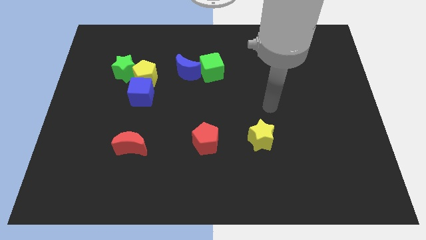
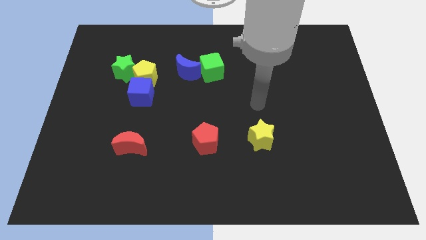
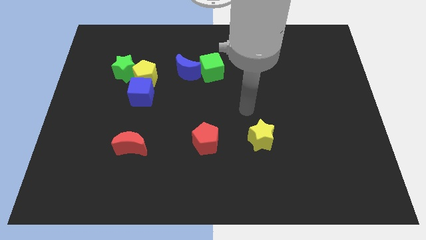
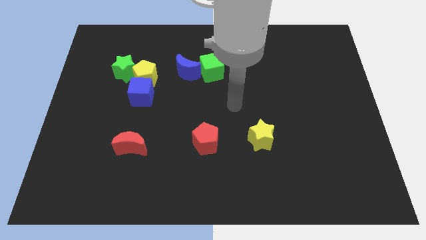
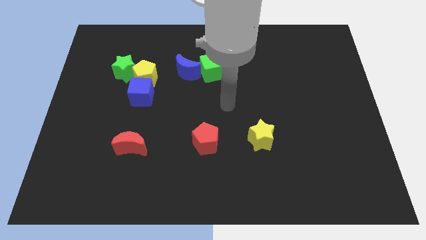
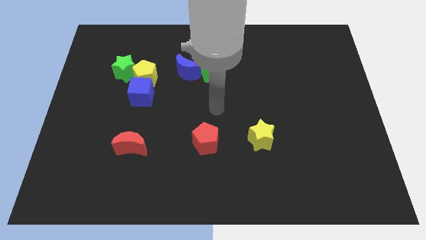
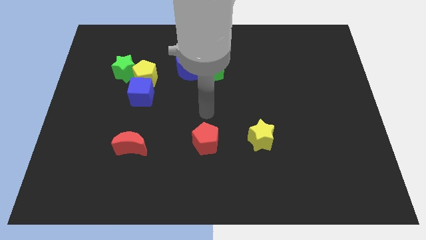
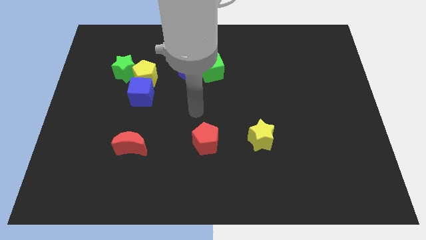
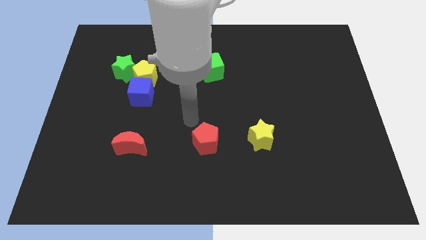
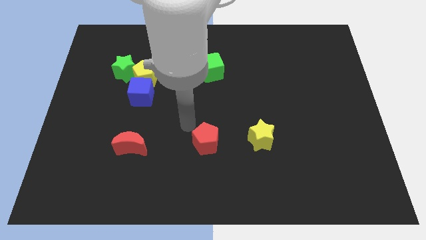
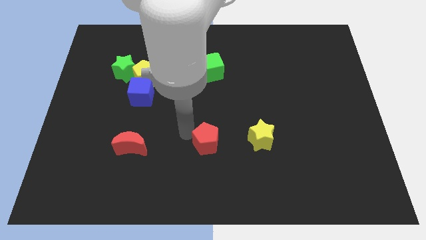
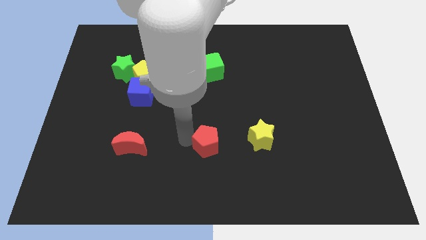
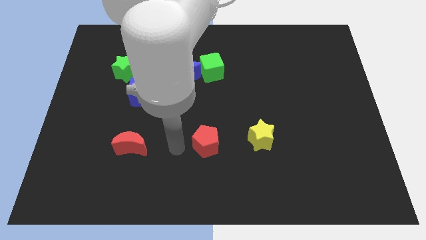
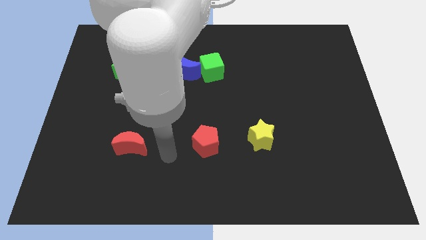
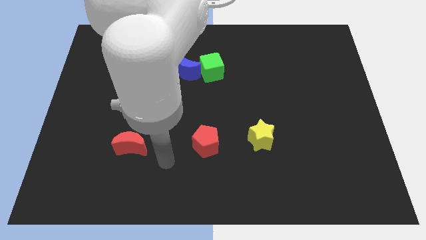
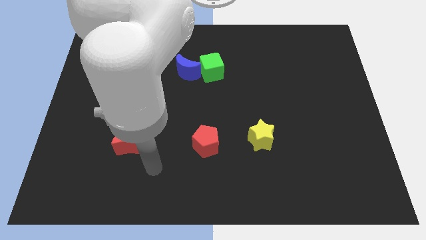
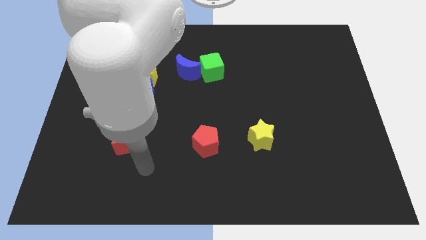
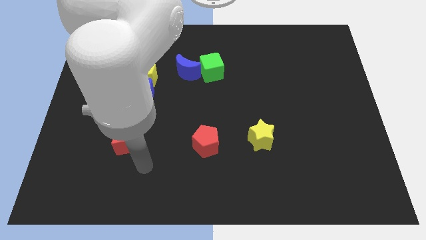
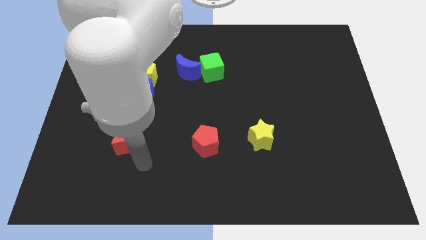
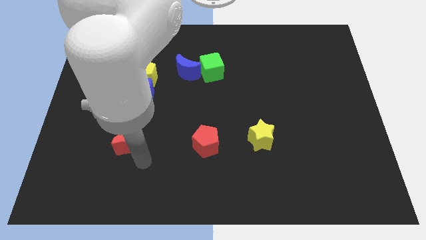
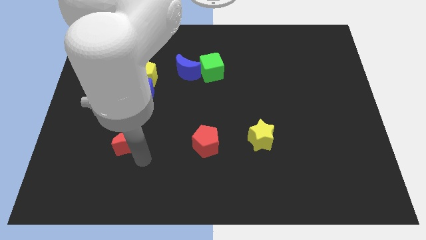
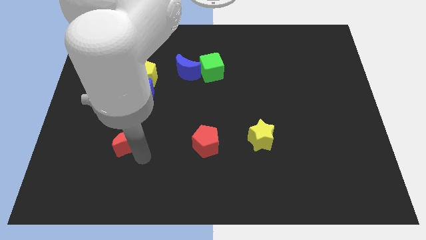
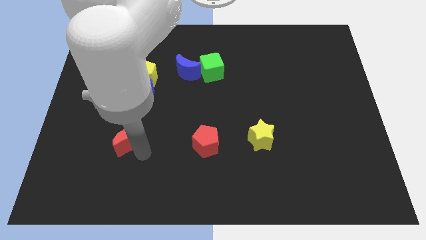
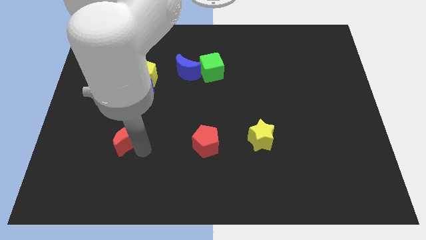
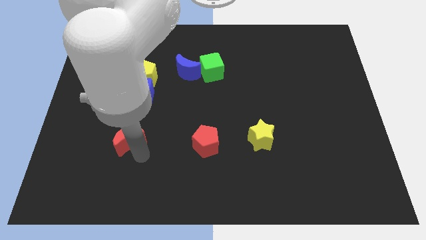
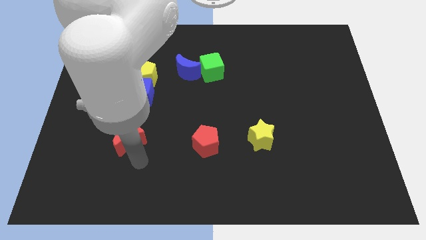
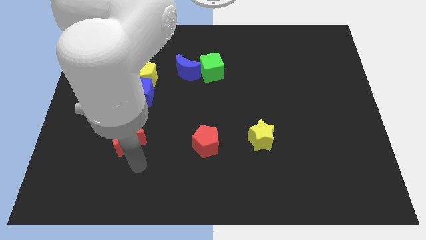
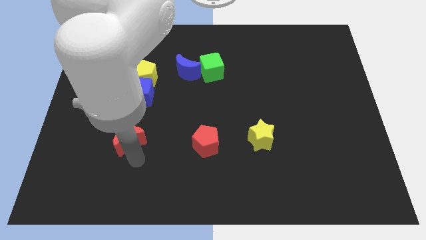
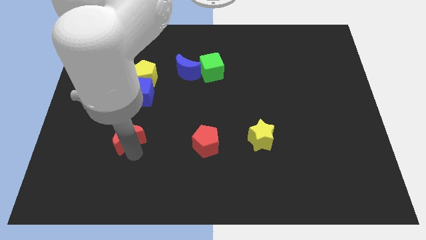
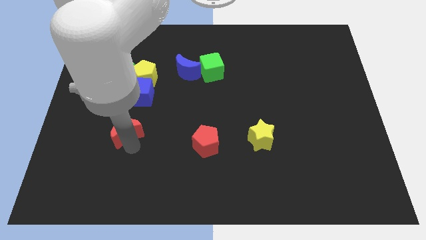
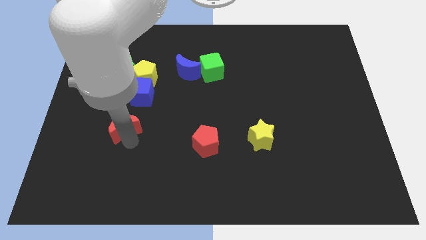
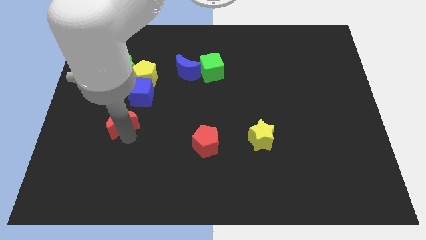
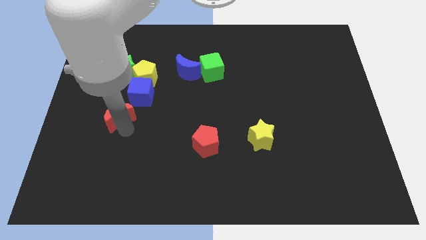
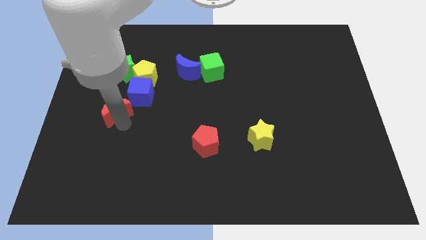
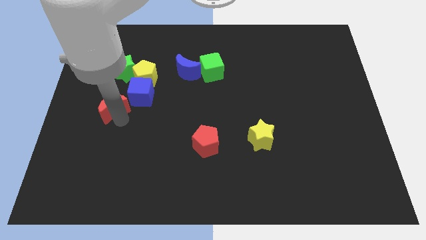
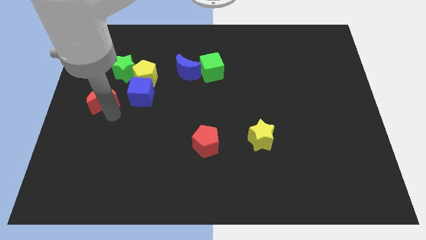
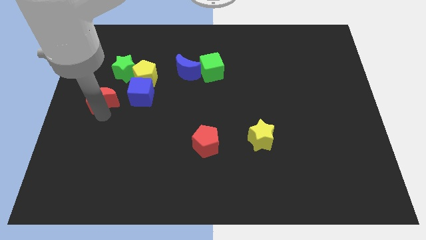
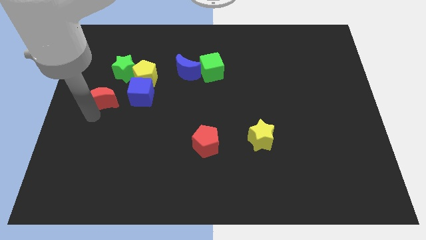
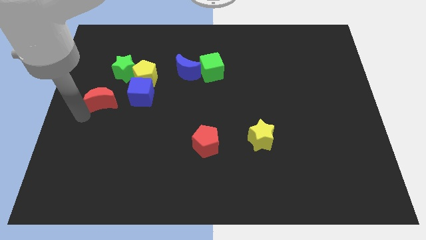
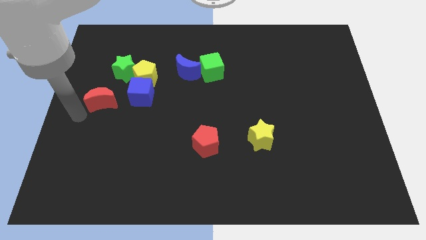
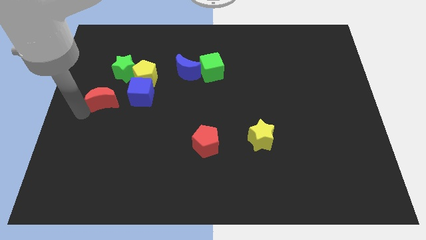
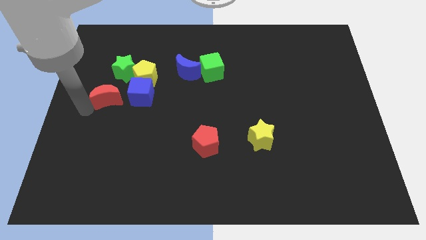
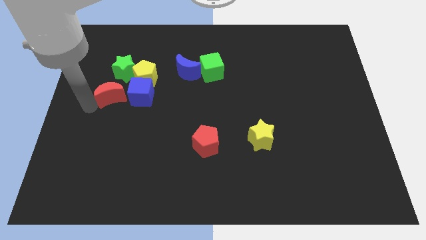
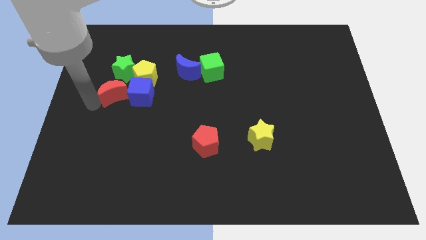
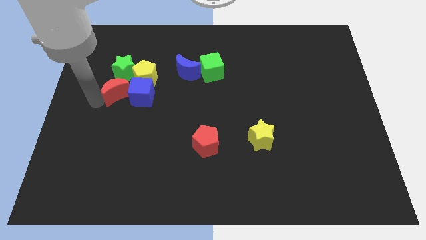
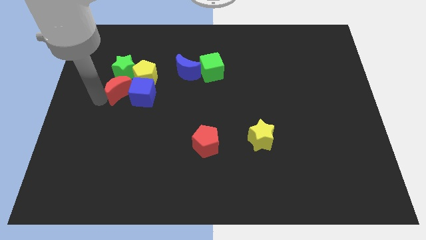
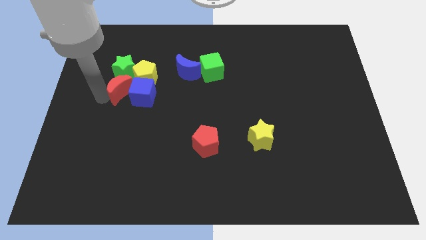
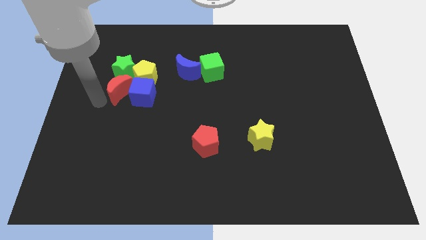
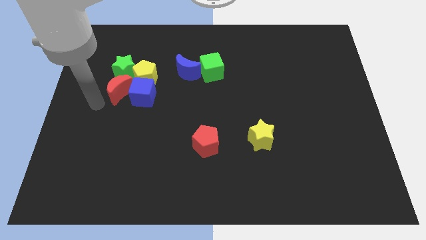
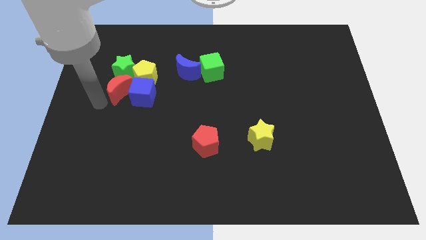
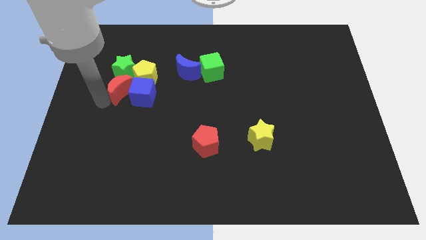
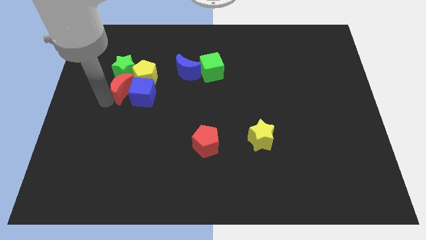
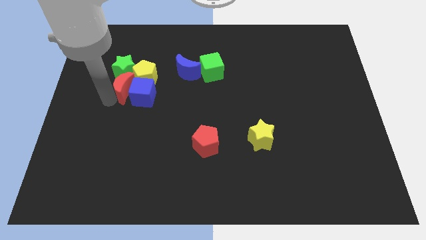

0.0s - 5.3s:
slide the red moon towards the yellow pentagon

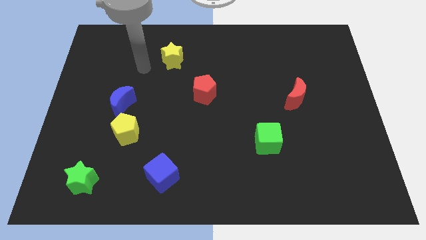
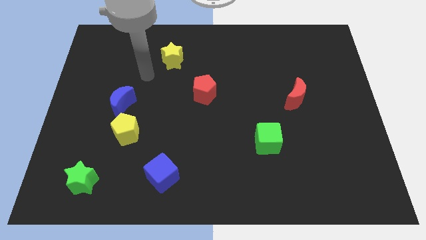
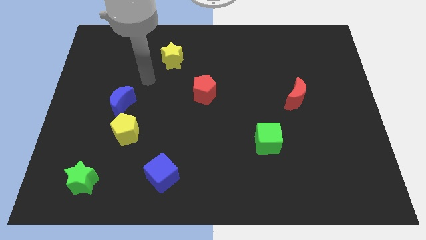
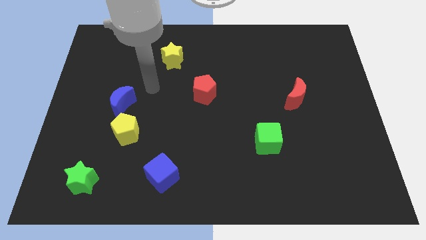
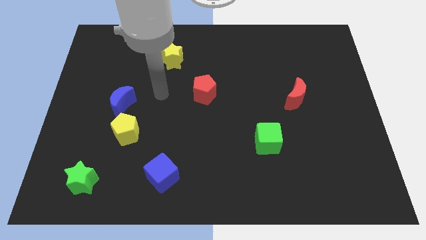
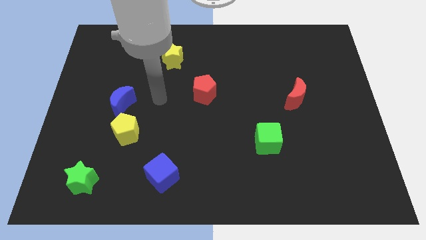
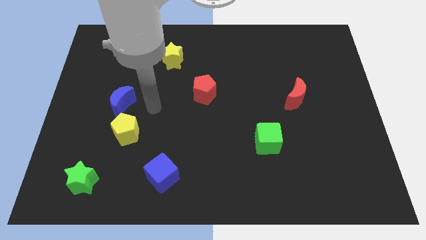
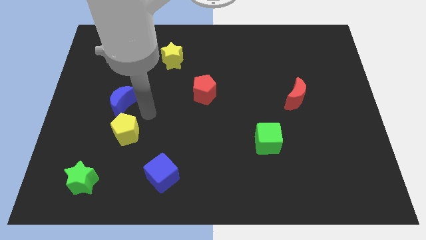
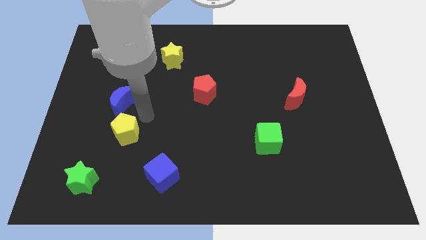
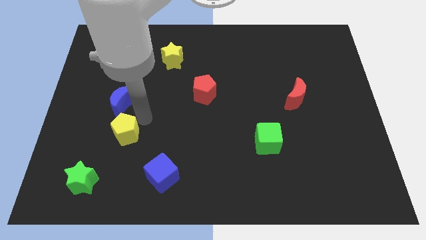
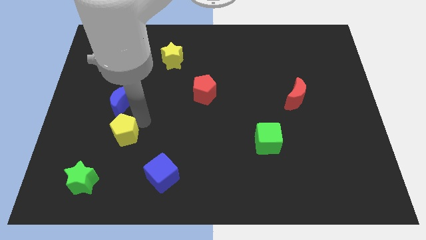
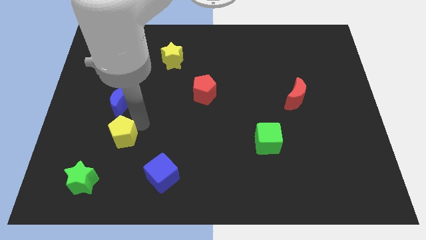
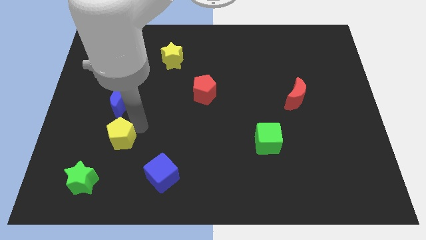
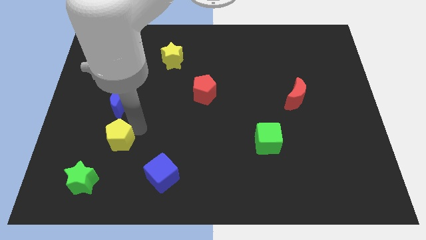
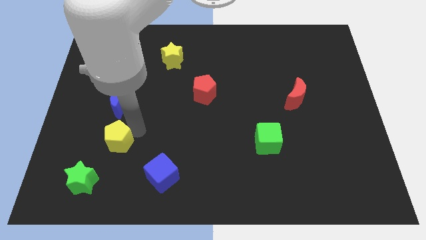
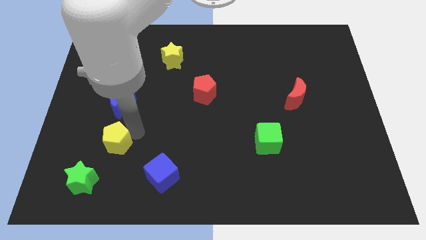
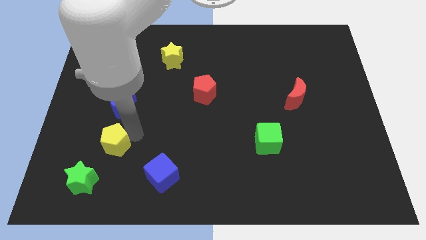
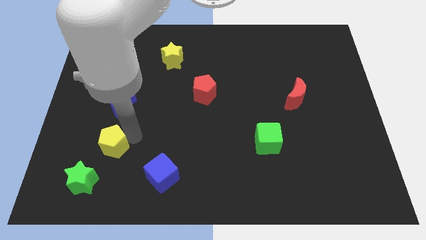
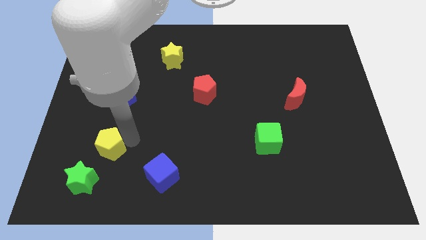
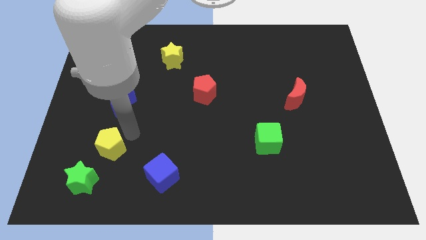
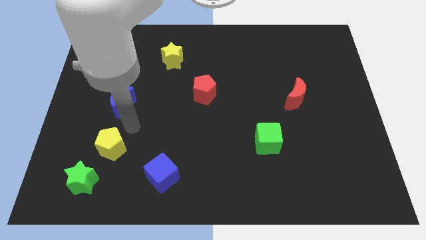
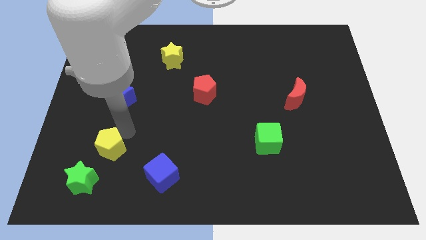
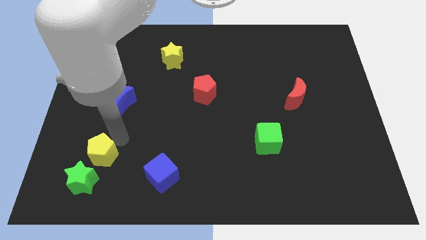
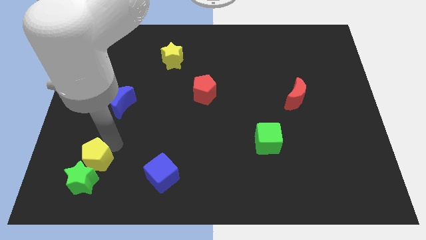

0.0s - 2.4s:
slide the yellow pentagon towards the green star

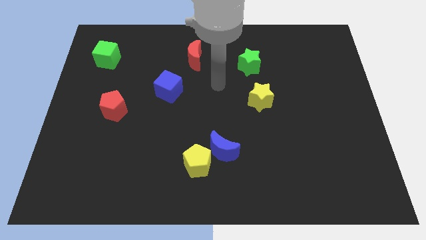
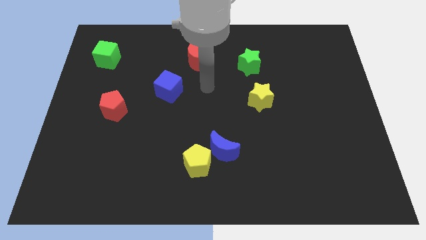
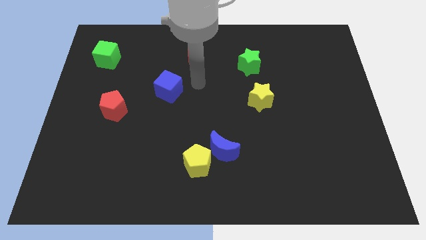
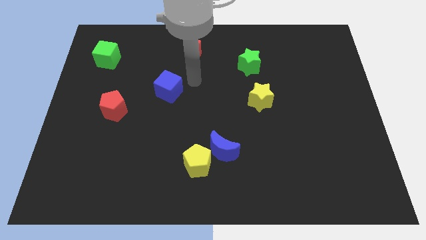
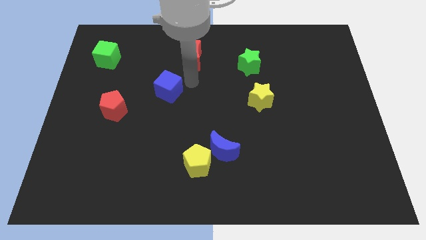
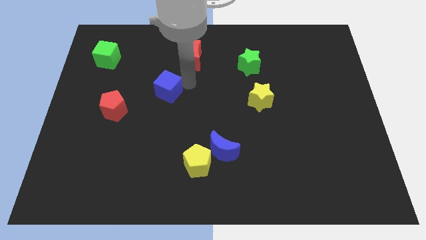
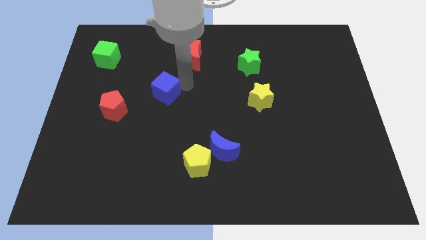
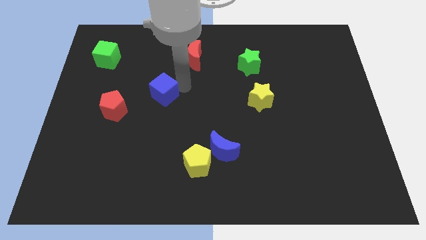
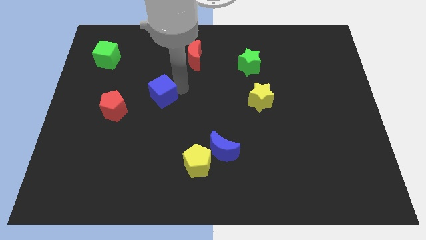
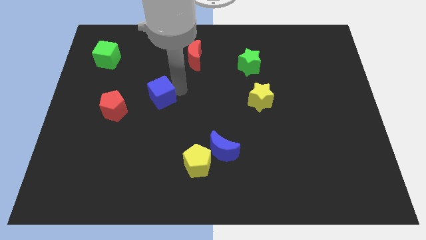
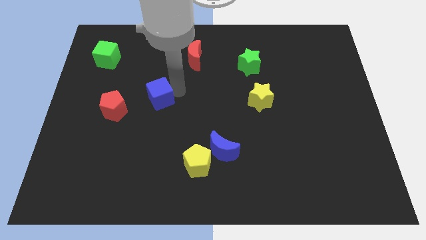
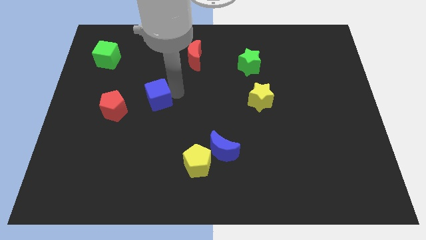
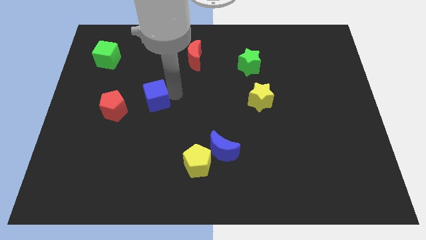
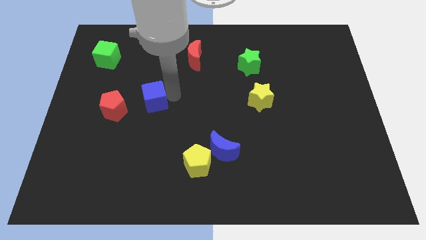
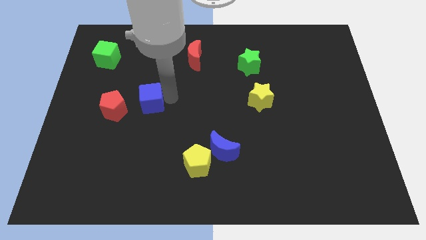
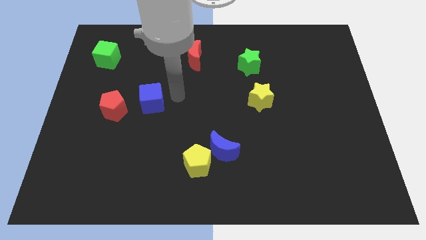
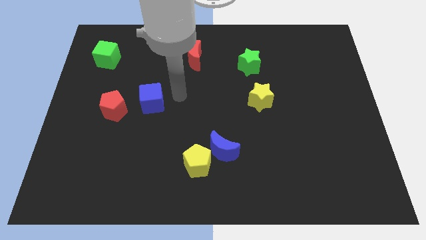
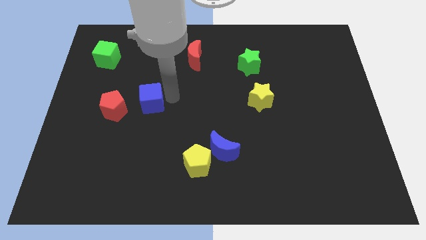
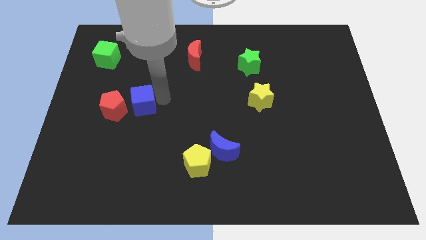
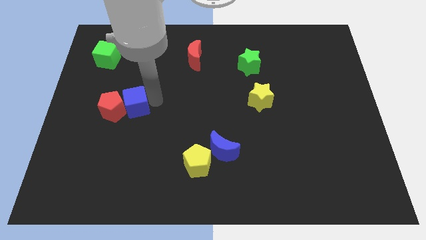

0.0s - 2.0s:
slide the blue cube next to the red pentagon
